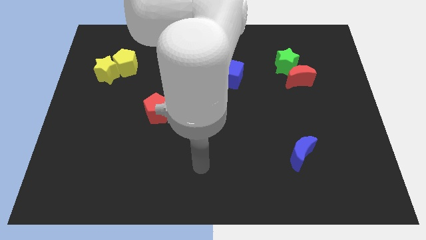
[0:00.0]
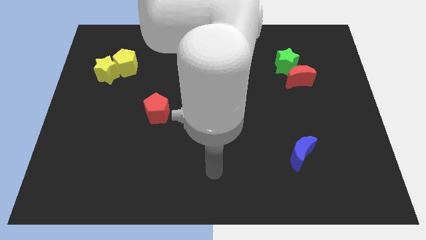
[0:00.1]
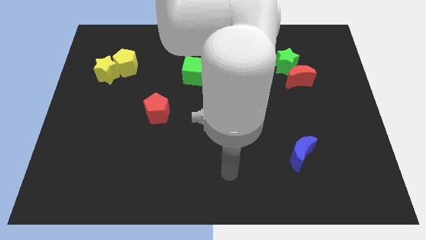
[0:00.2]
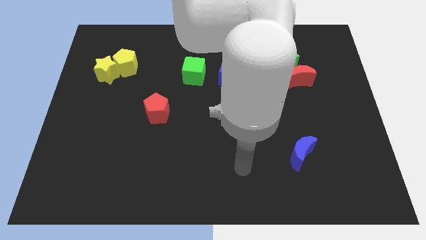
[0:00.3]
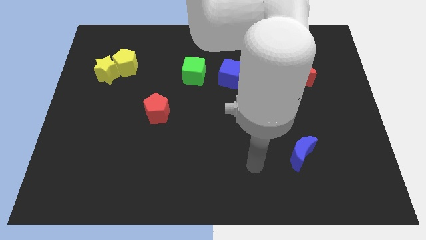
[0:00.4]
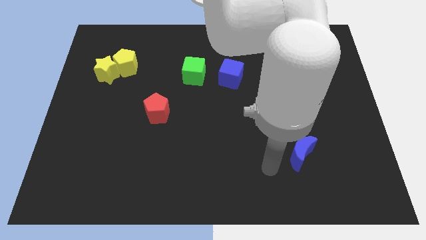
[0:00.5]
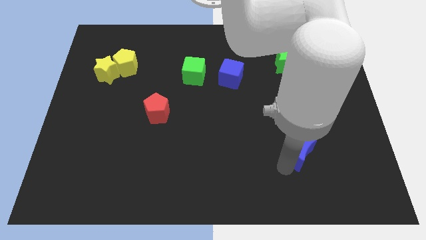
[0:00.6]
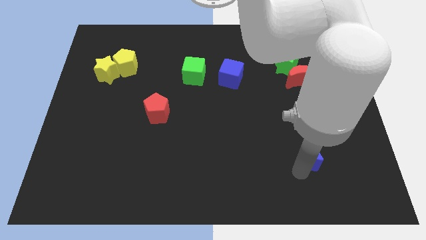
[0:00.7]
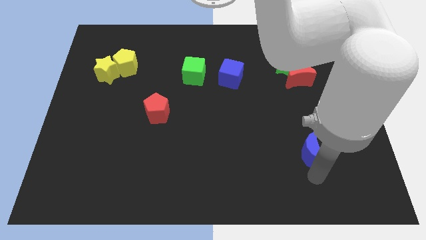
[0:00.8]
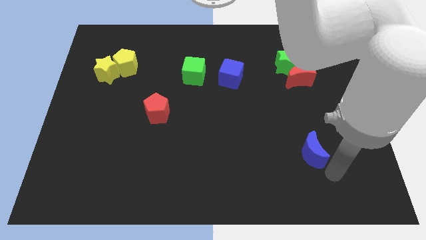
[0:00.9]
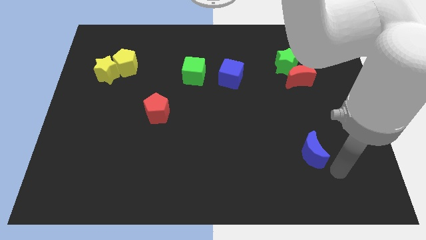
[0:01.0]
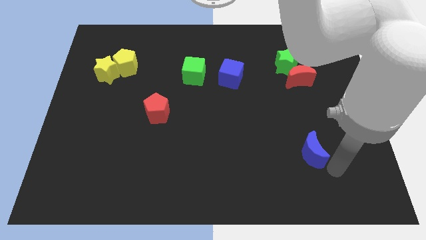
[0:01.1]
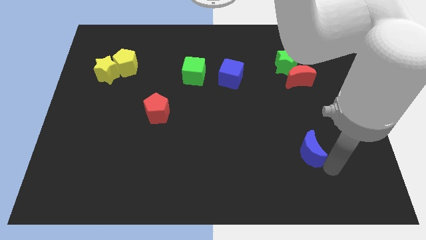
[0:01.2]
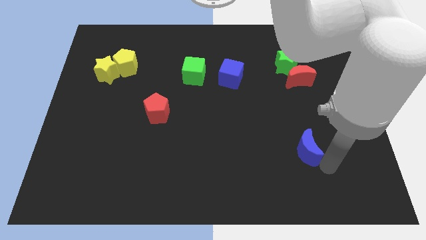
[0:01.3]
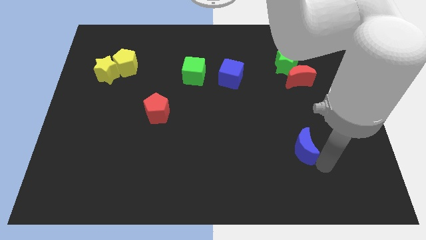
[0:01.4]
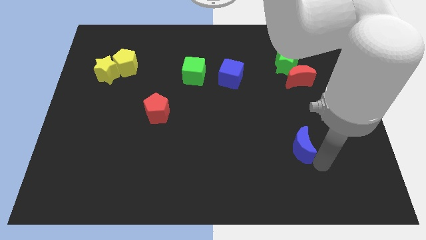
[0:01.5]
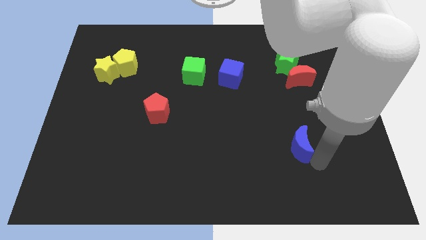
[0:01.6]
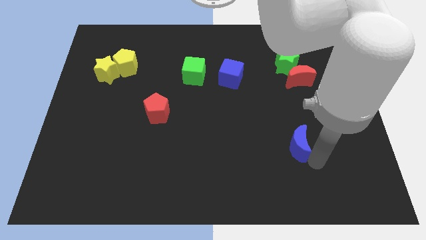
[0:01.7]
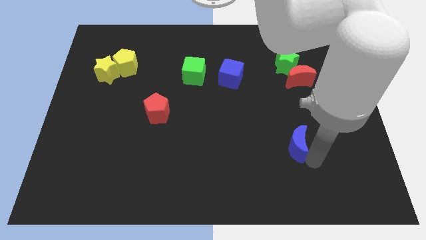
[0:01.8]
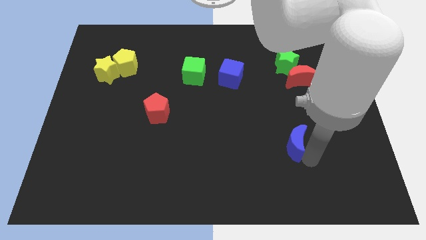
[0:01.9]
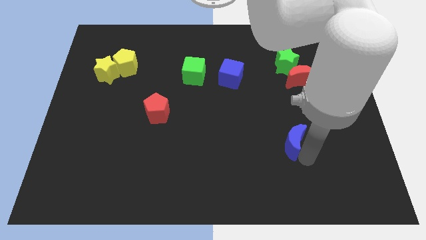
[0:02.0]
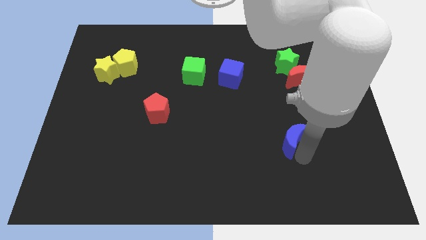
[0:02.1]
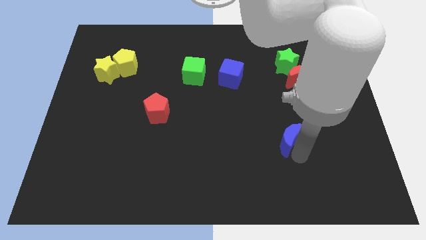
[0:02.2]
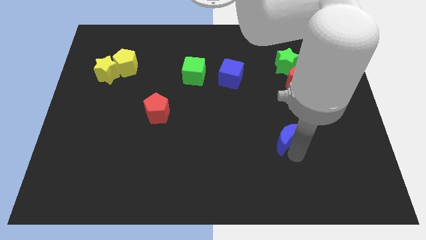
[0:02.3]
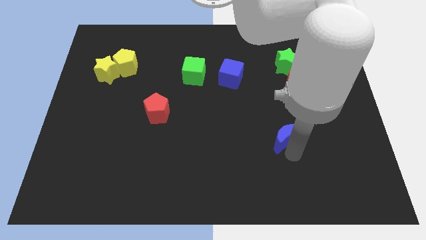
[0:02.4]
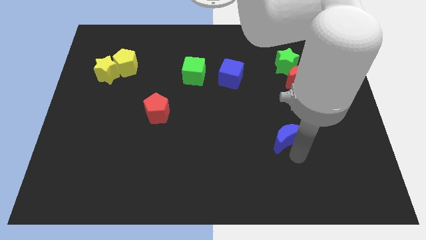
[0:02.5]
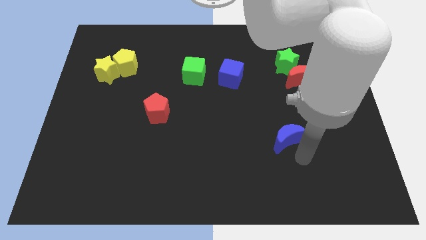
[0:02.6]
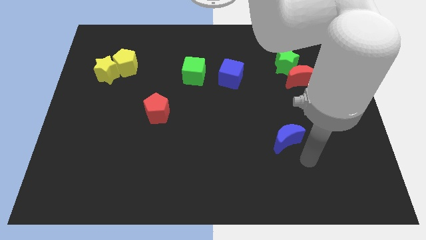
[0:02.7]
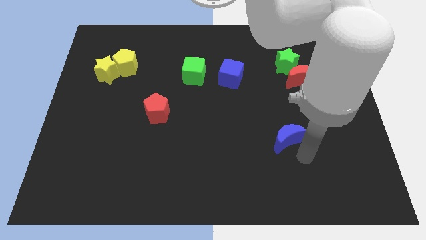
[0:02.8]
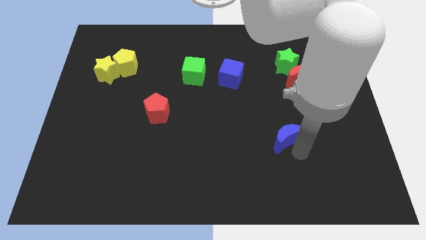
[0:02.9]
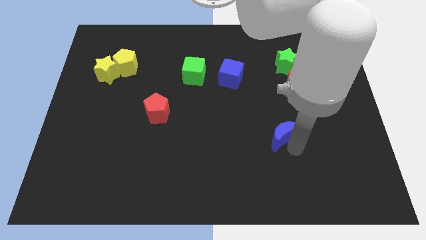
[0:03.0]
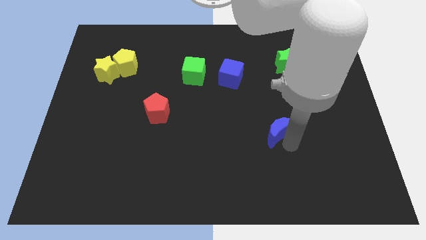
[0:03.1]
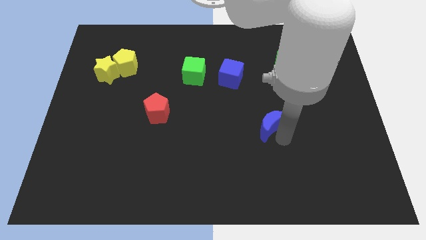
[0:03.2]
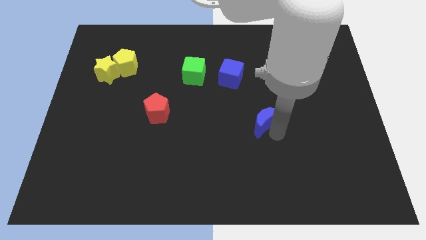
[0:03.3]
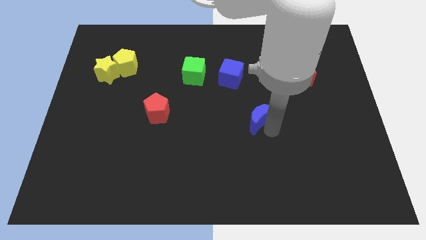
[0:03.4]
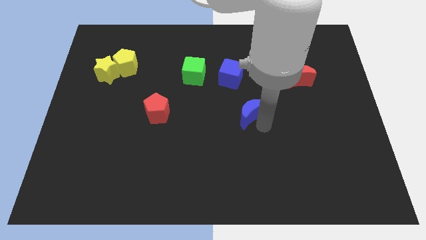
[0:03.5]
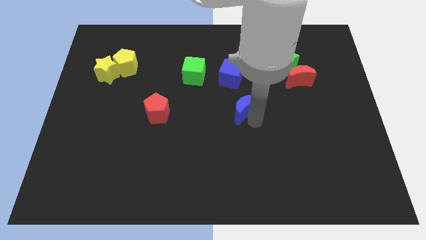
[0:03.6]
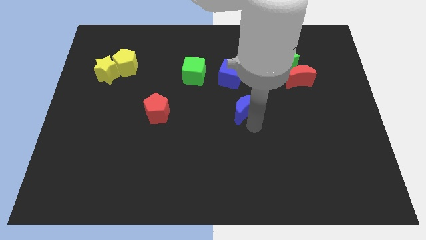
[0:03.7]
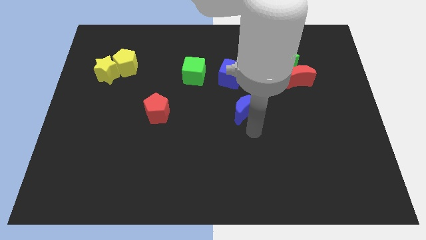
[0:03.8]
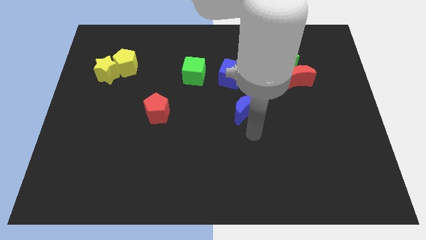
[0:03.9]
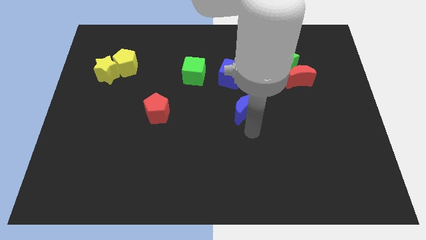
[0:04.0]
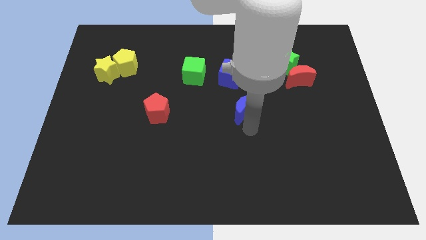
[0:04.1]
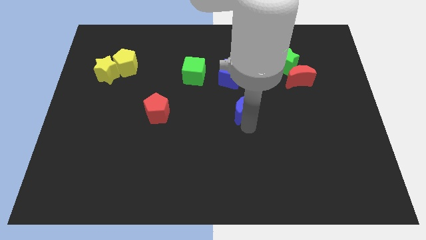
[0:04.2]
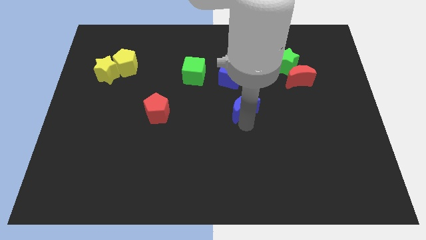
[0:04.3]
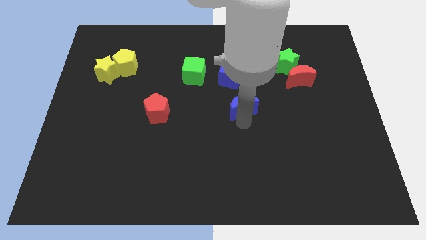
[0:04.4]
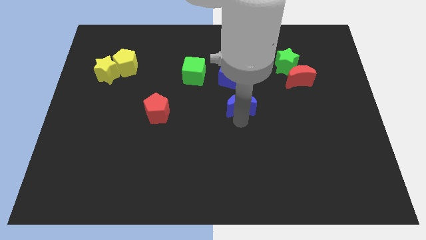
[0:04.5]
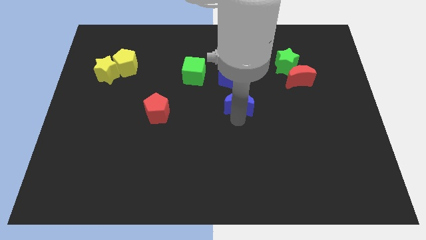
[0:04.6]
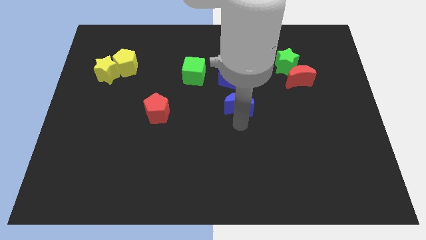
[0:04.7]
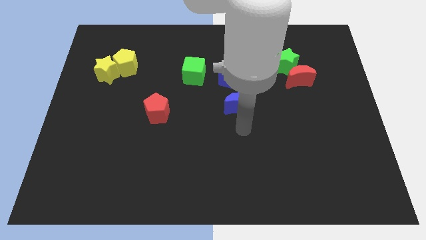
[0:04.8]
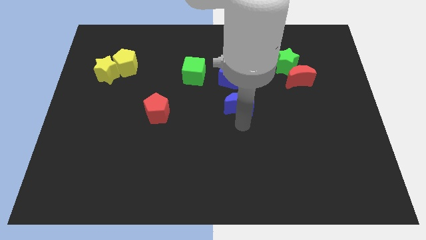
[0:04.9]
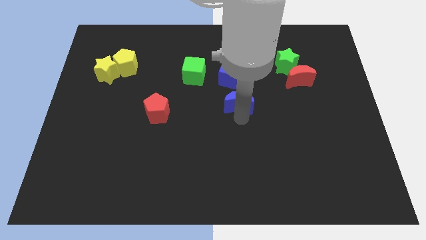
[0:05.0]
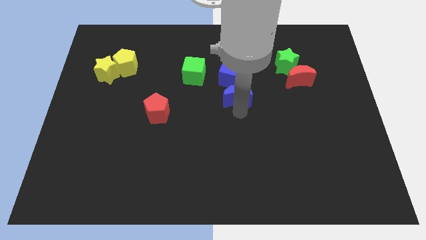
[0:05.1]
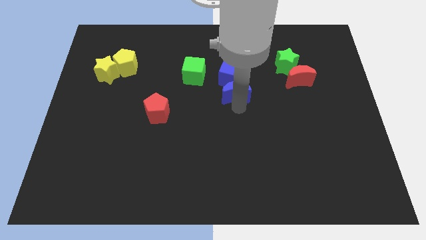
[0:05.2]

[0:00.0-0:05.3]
push the blue moon close to the blue cube

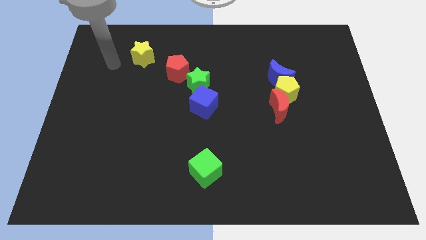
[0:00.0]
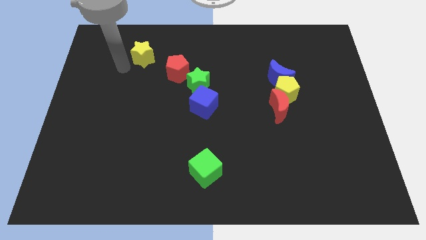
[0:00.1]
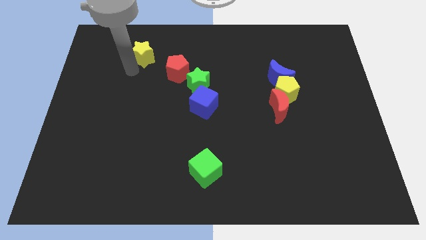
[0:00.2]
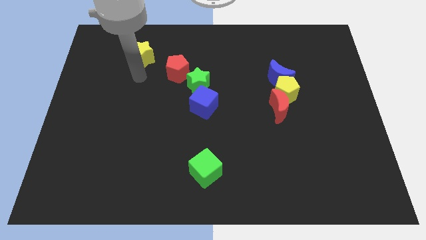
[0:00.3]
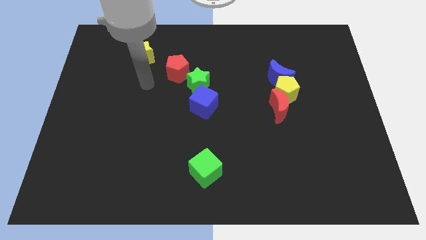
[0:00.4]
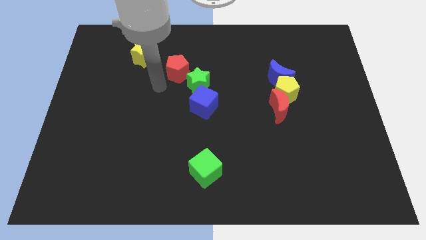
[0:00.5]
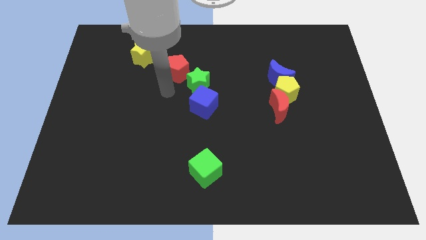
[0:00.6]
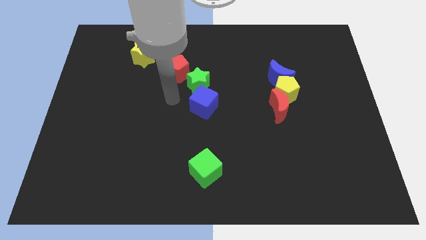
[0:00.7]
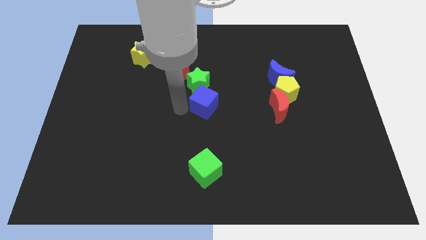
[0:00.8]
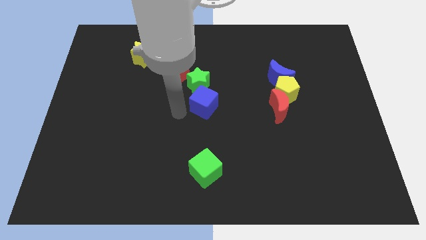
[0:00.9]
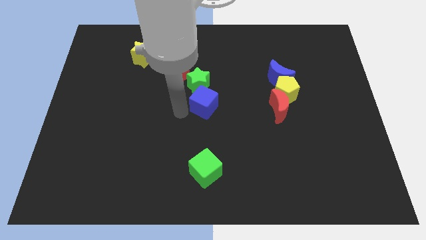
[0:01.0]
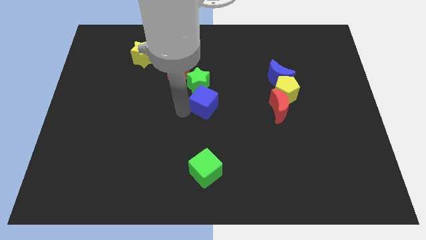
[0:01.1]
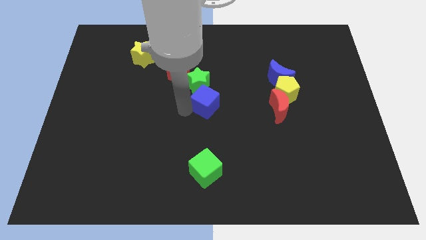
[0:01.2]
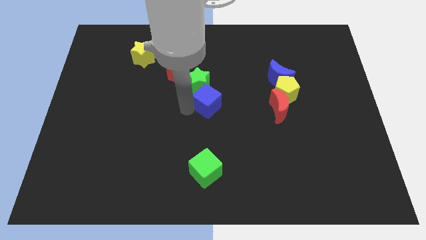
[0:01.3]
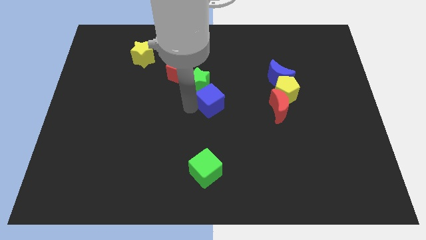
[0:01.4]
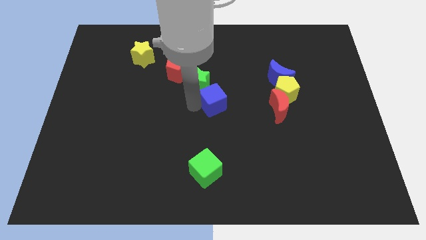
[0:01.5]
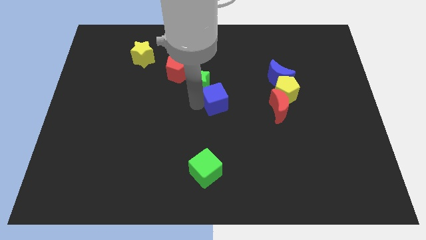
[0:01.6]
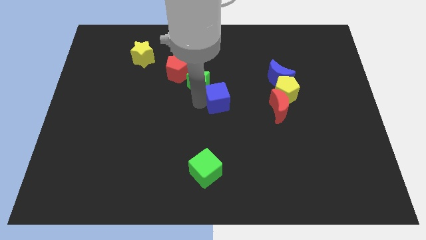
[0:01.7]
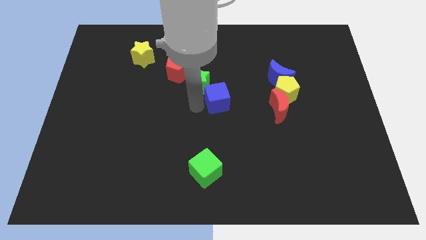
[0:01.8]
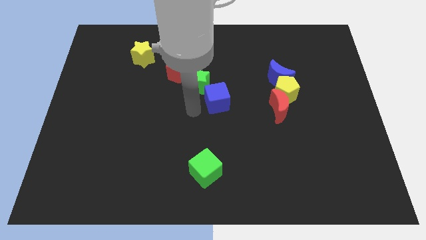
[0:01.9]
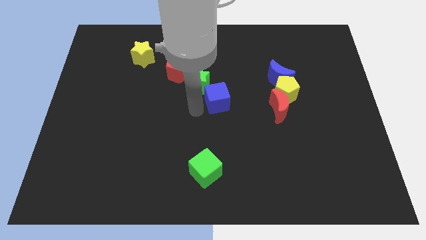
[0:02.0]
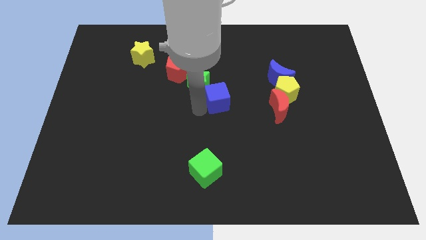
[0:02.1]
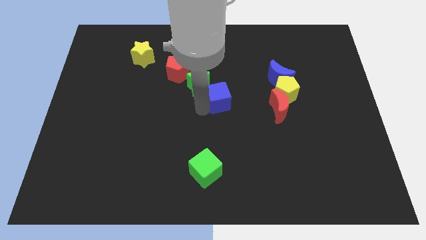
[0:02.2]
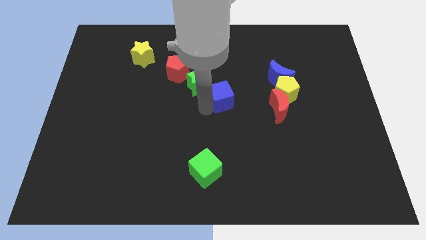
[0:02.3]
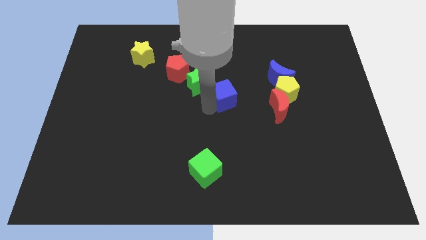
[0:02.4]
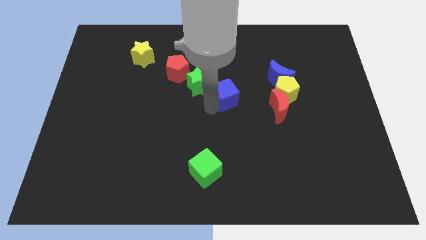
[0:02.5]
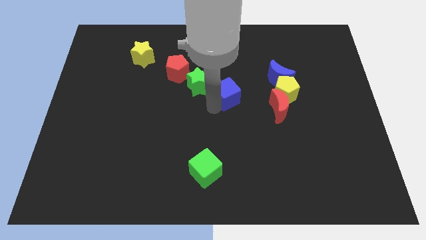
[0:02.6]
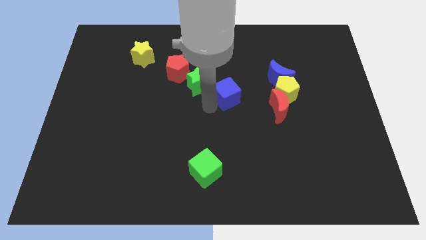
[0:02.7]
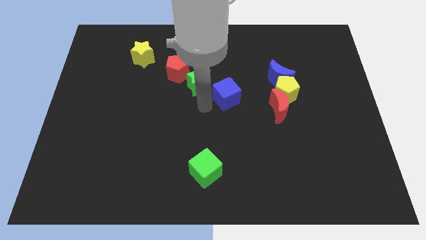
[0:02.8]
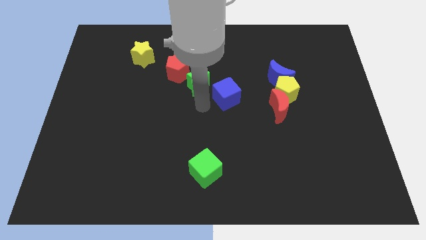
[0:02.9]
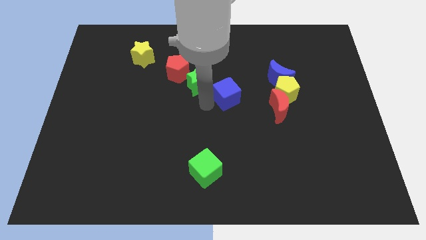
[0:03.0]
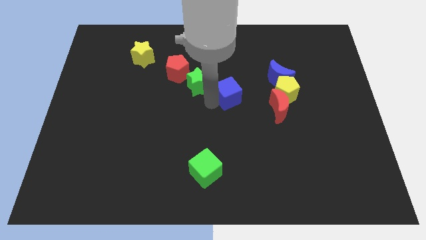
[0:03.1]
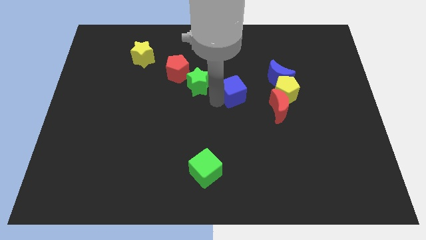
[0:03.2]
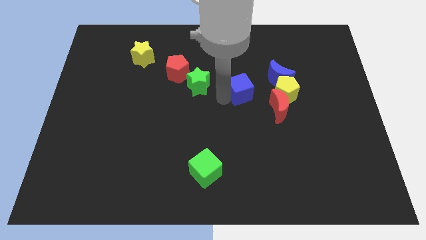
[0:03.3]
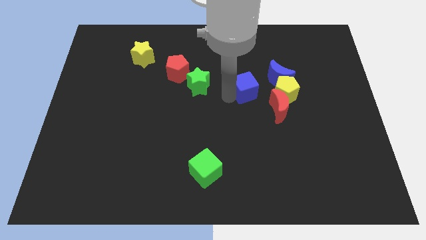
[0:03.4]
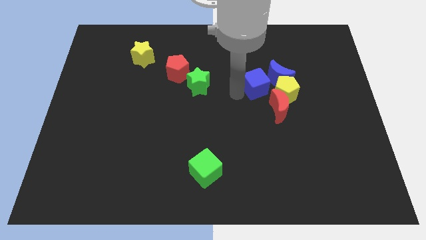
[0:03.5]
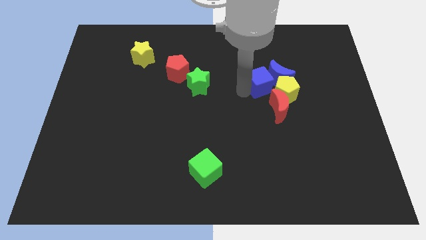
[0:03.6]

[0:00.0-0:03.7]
move the blue cube next to the blue moon
